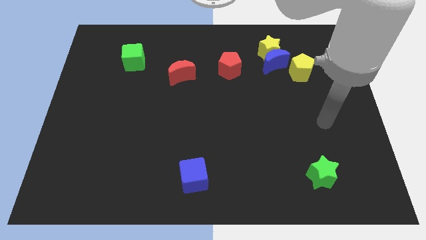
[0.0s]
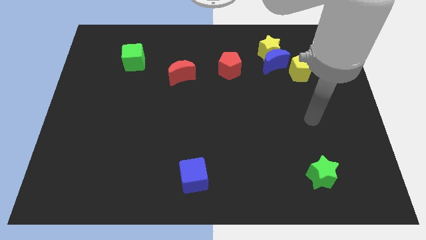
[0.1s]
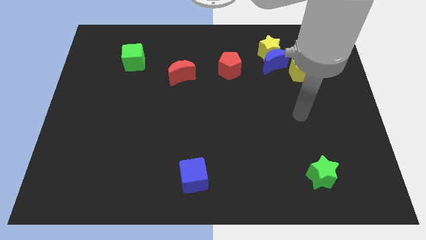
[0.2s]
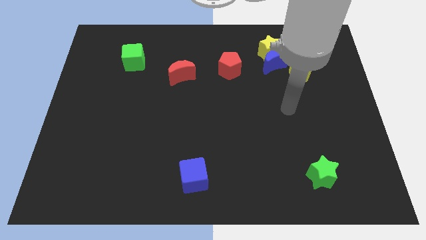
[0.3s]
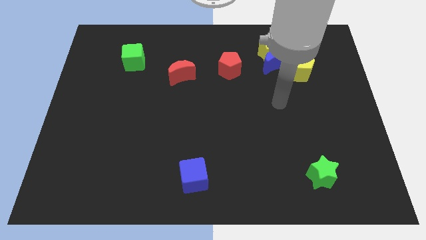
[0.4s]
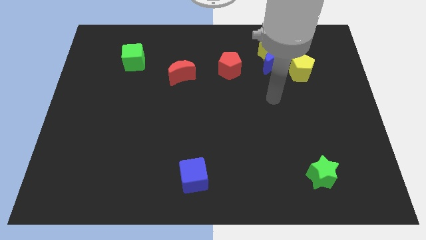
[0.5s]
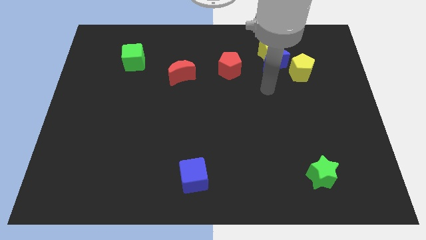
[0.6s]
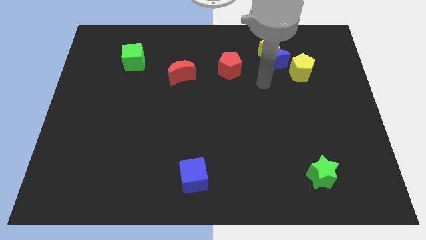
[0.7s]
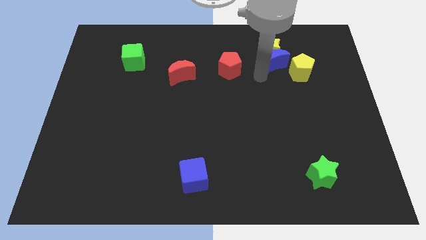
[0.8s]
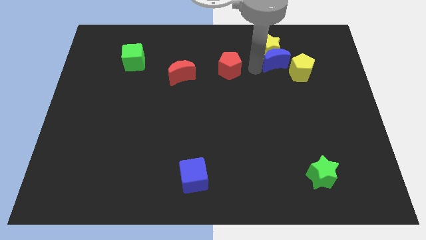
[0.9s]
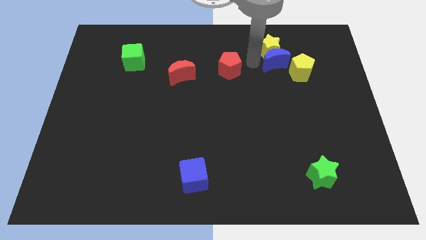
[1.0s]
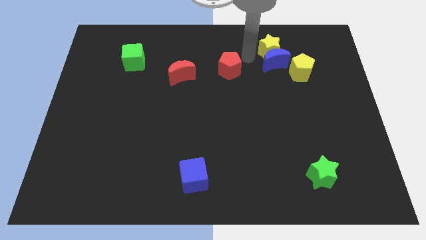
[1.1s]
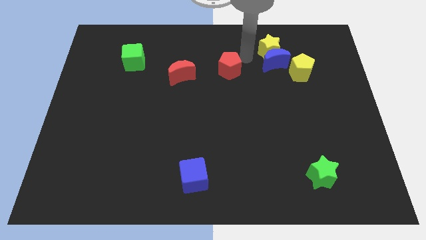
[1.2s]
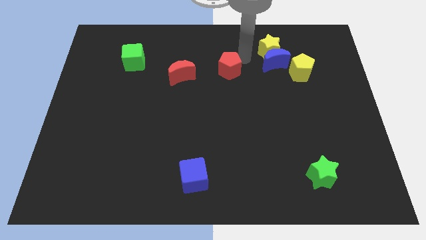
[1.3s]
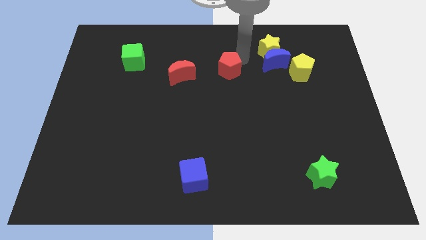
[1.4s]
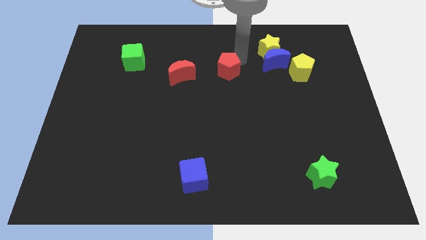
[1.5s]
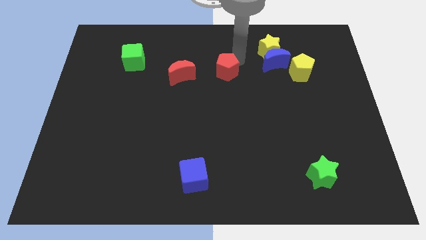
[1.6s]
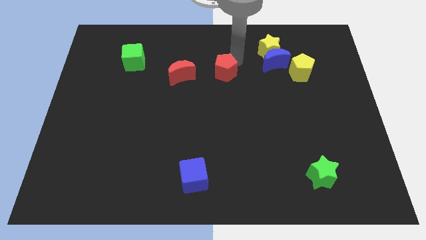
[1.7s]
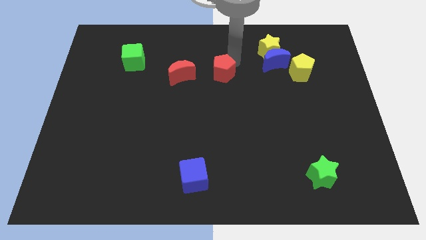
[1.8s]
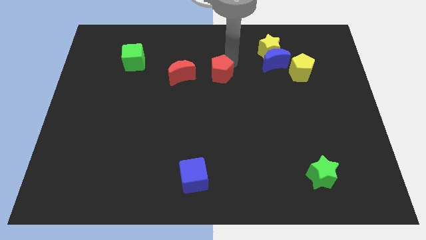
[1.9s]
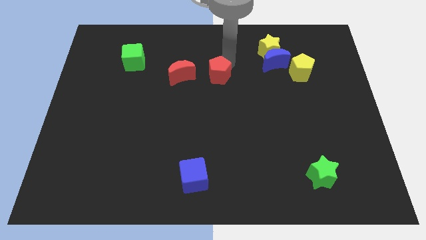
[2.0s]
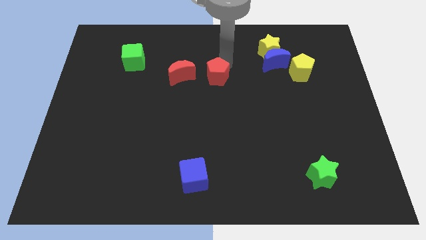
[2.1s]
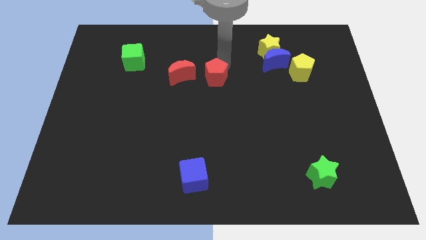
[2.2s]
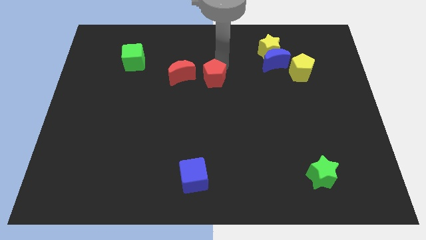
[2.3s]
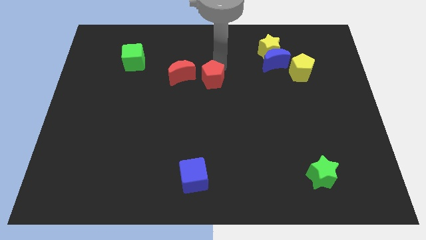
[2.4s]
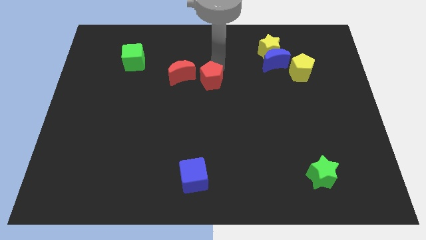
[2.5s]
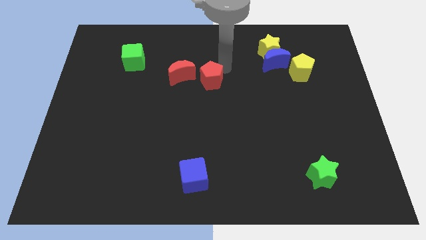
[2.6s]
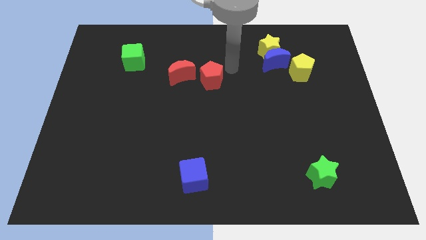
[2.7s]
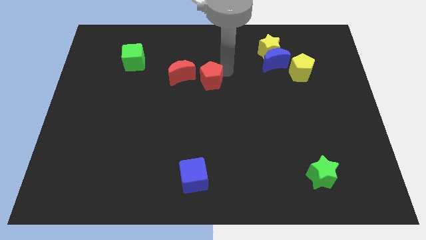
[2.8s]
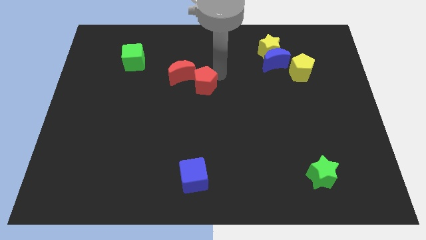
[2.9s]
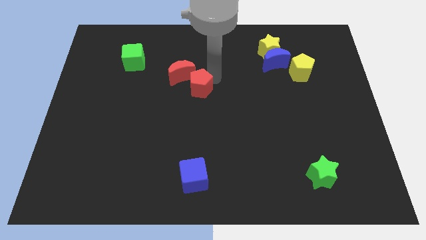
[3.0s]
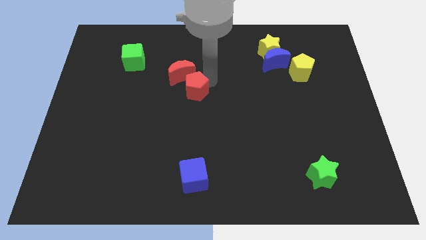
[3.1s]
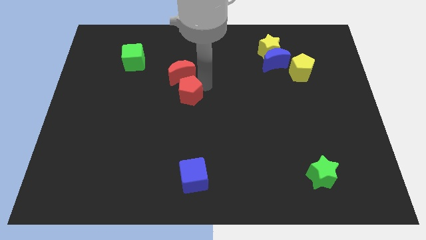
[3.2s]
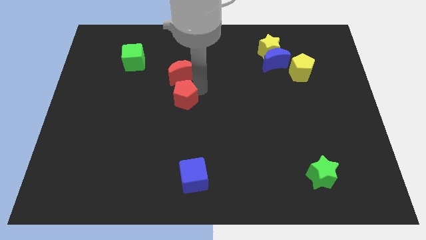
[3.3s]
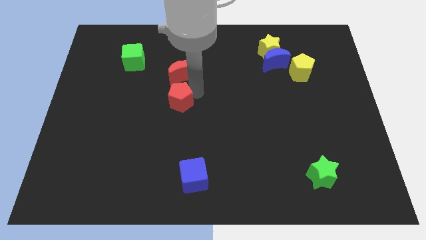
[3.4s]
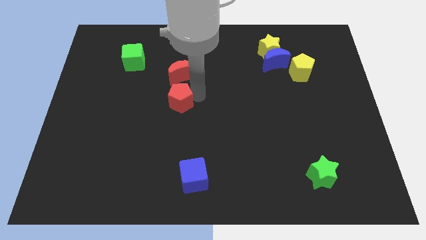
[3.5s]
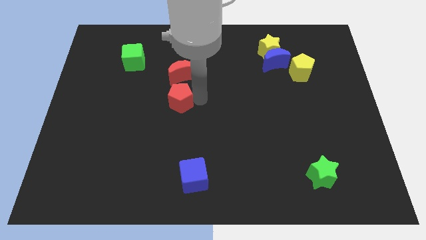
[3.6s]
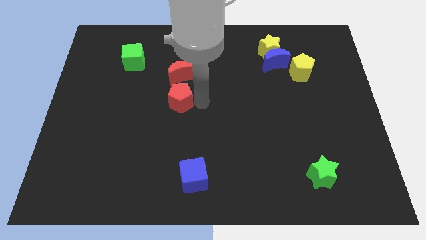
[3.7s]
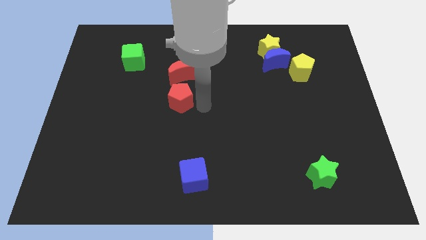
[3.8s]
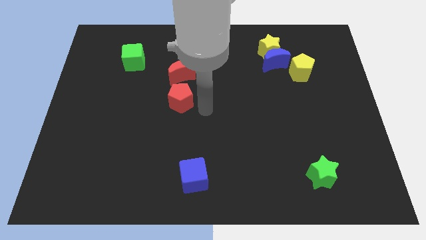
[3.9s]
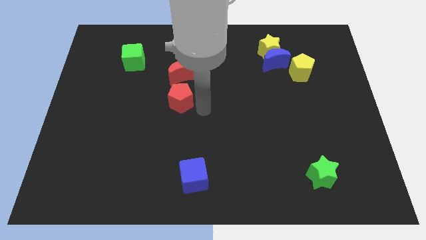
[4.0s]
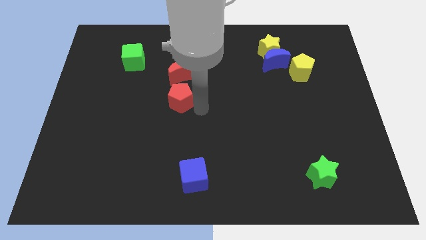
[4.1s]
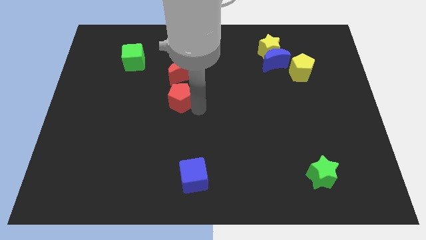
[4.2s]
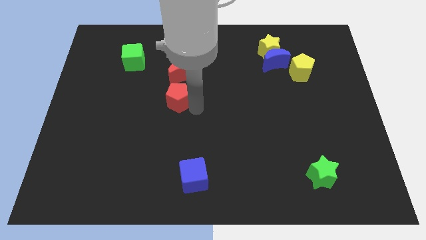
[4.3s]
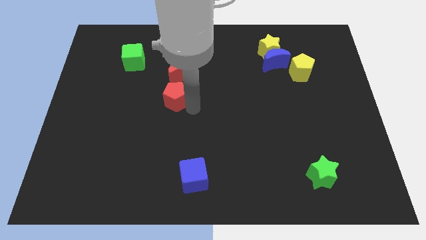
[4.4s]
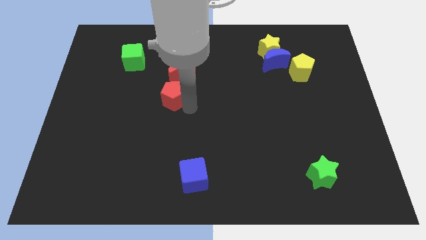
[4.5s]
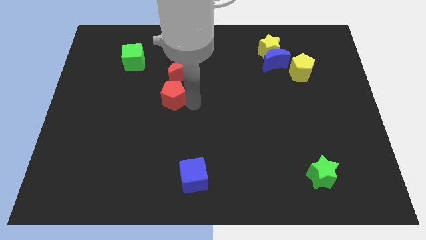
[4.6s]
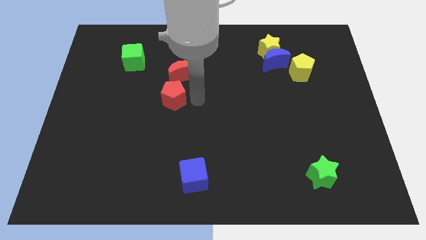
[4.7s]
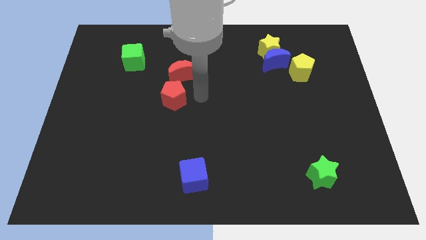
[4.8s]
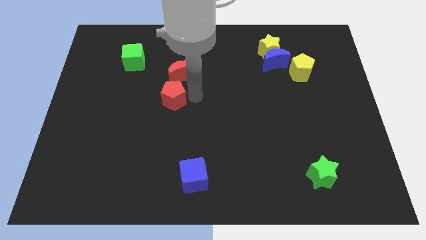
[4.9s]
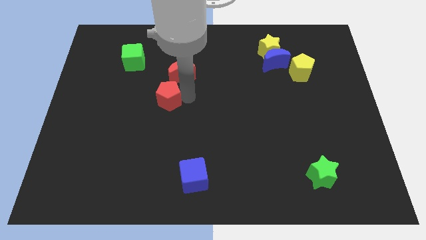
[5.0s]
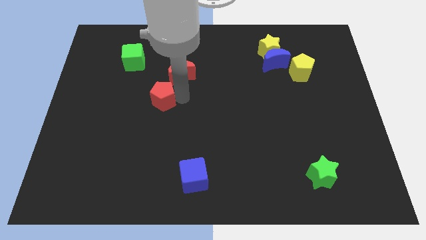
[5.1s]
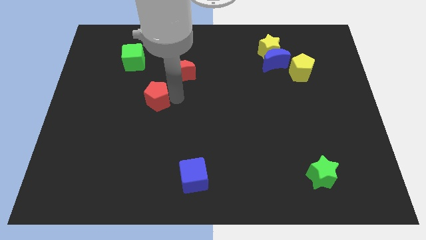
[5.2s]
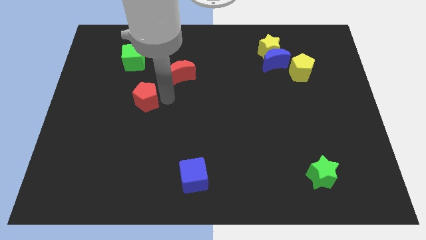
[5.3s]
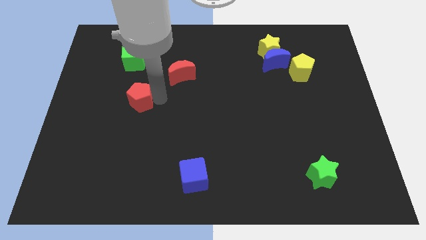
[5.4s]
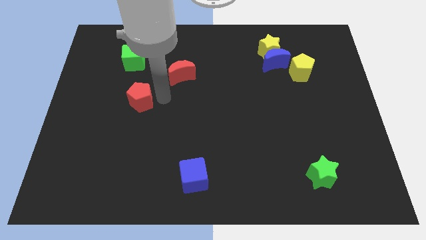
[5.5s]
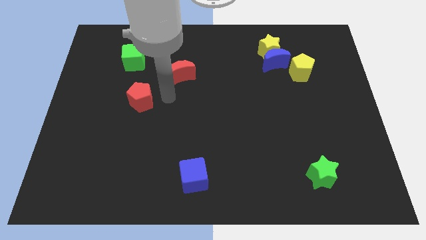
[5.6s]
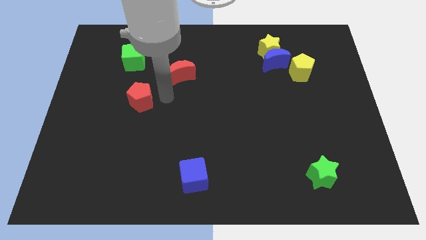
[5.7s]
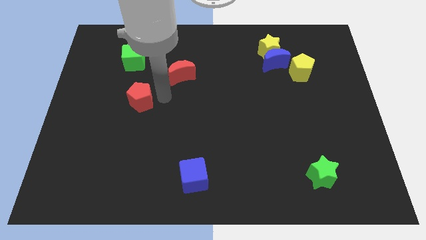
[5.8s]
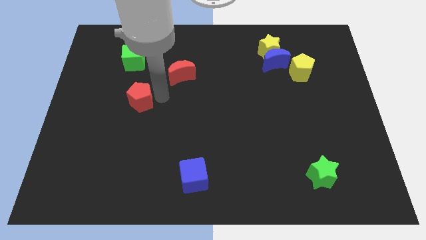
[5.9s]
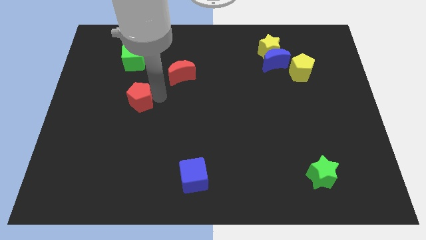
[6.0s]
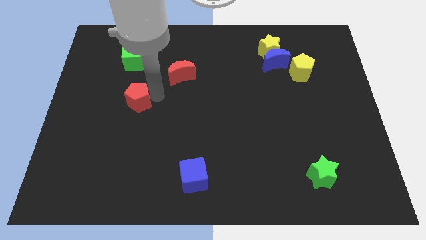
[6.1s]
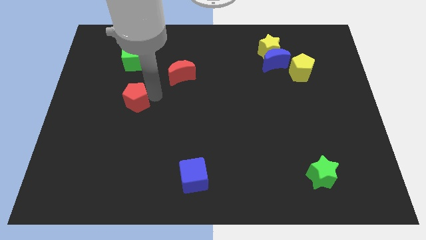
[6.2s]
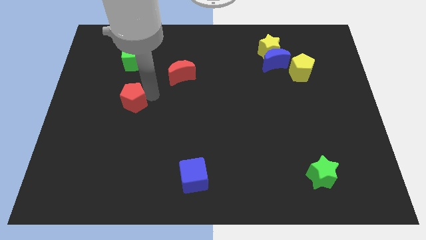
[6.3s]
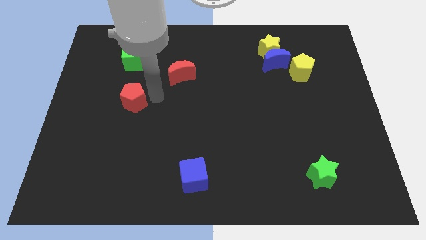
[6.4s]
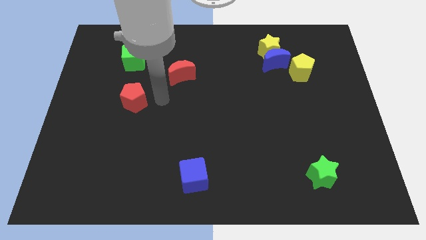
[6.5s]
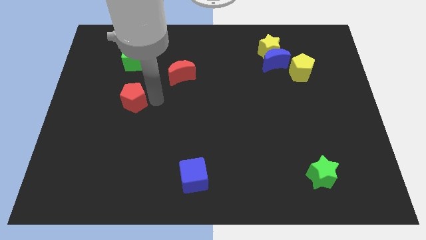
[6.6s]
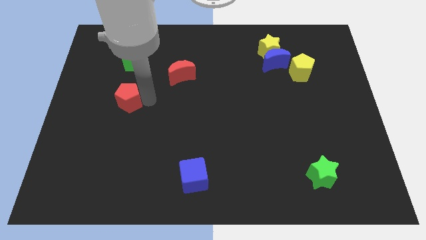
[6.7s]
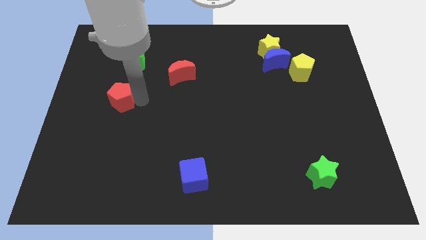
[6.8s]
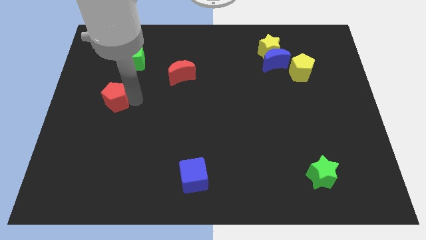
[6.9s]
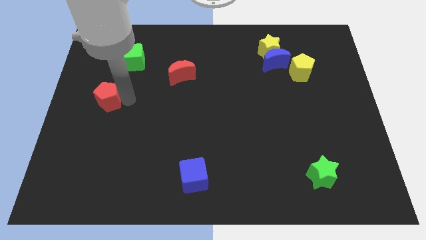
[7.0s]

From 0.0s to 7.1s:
put the red pentagon to the center left
